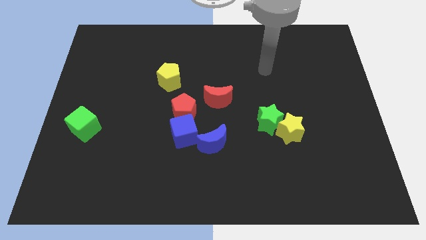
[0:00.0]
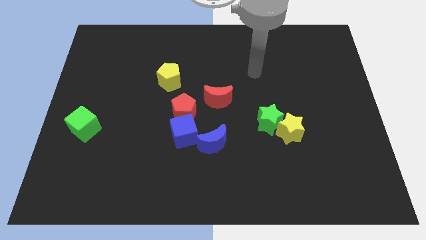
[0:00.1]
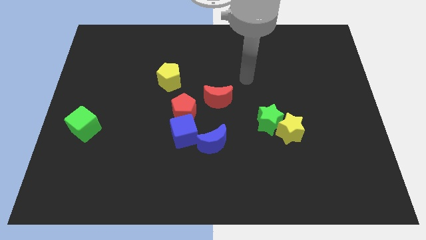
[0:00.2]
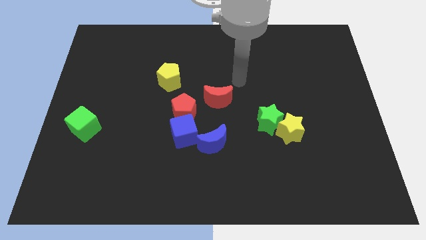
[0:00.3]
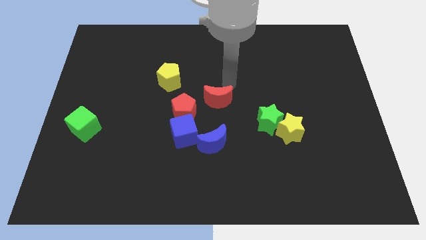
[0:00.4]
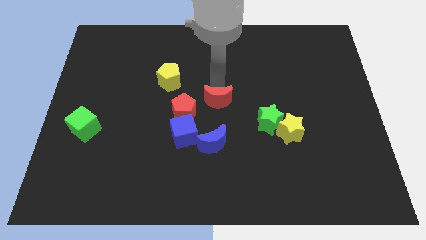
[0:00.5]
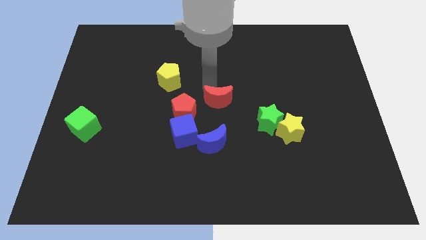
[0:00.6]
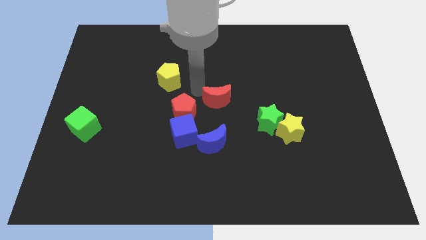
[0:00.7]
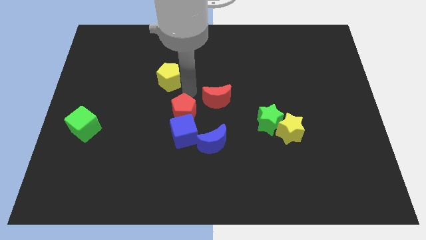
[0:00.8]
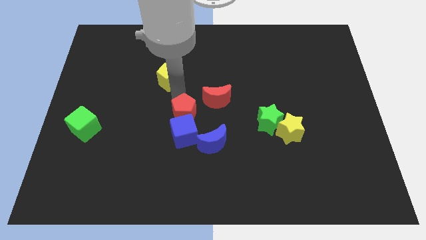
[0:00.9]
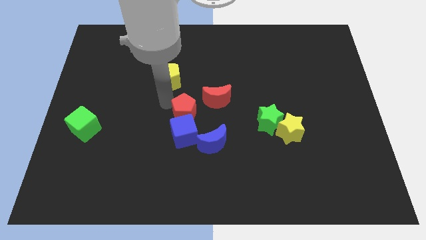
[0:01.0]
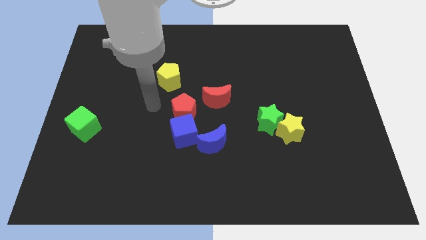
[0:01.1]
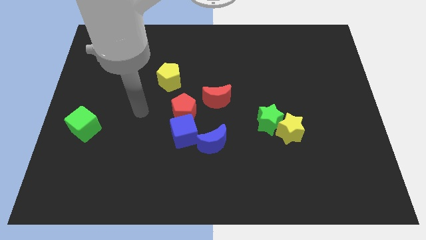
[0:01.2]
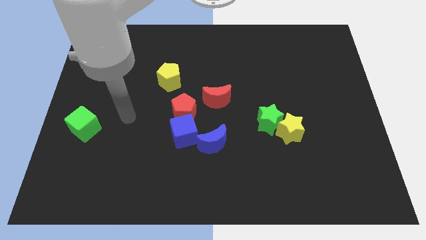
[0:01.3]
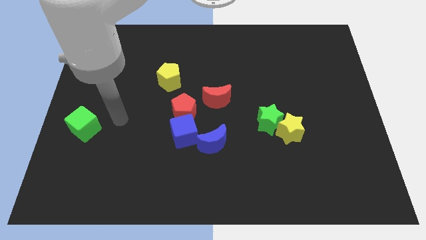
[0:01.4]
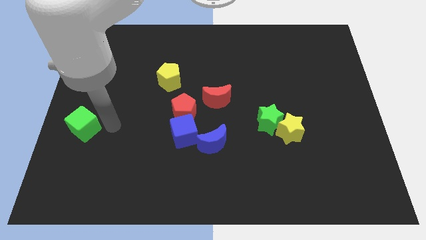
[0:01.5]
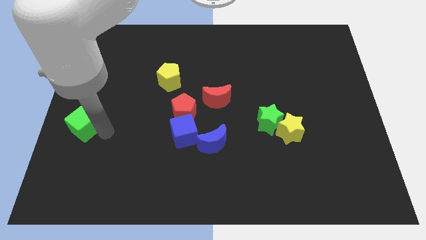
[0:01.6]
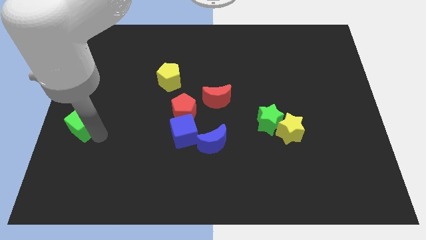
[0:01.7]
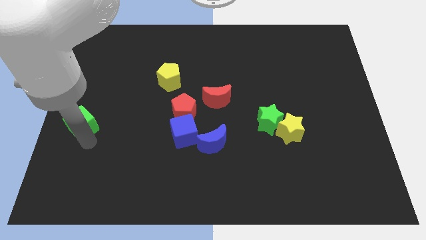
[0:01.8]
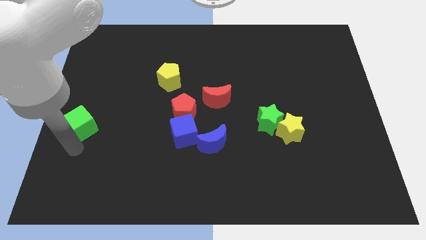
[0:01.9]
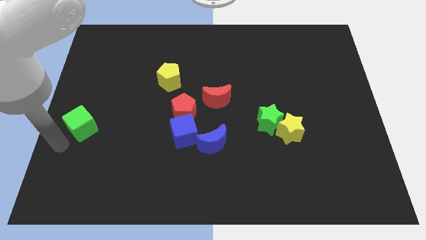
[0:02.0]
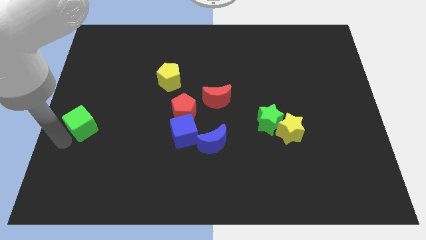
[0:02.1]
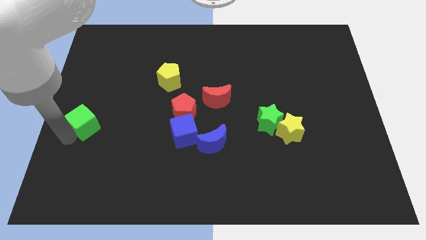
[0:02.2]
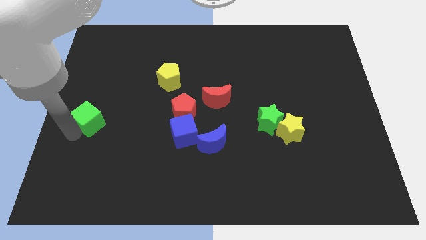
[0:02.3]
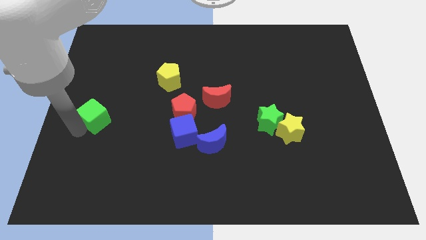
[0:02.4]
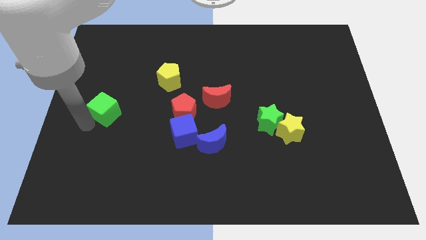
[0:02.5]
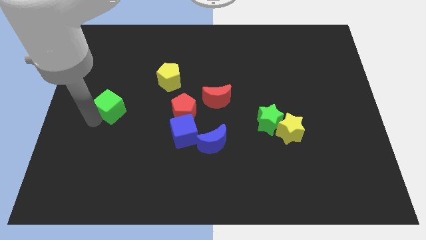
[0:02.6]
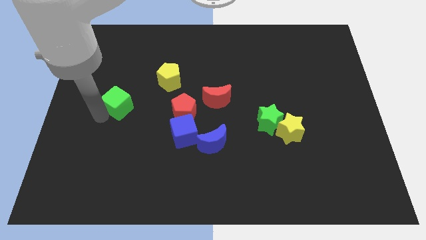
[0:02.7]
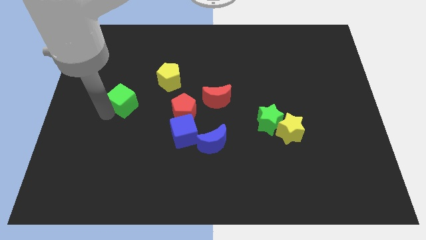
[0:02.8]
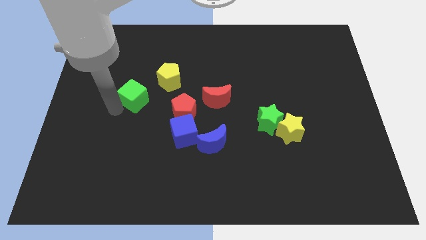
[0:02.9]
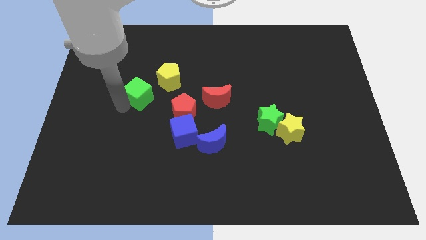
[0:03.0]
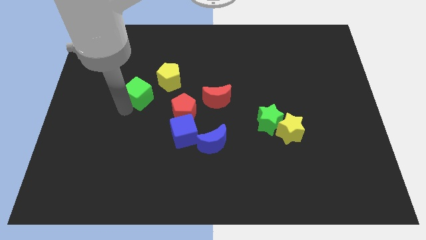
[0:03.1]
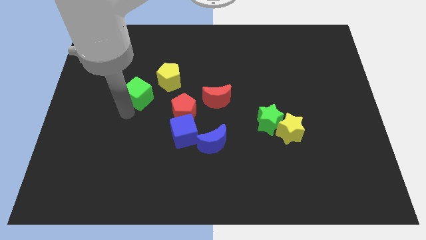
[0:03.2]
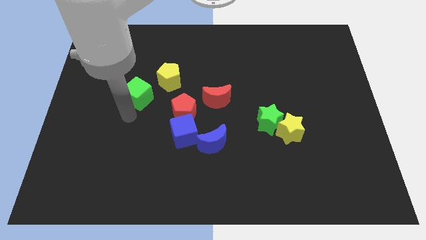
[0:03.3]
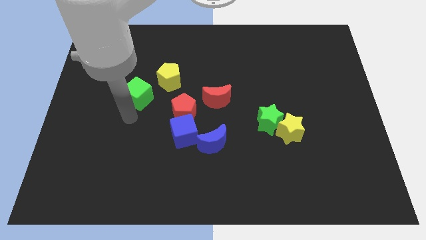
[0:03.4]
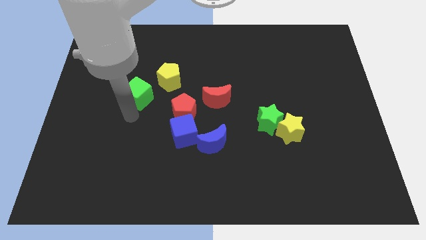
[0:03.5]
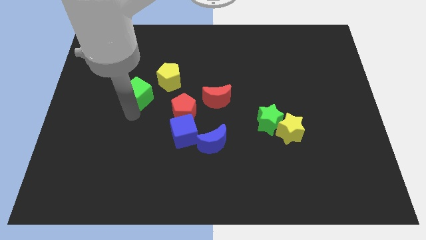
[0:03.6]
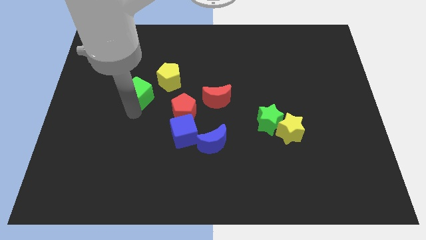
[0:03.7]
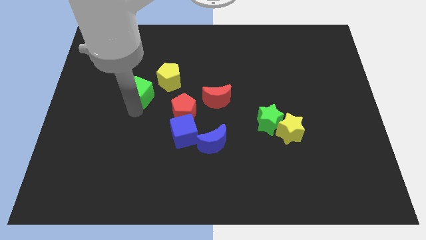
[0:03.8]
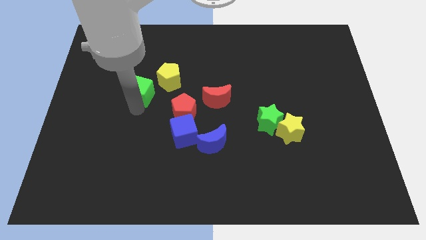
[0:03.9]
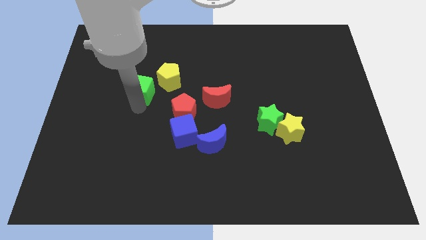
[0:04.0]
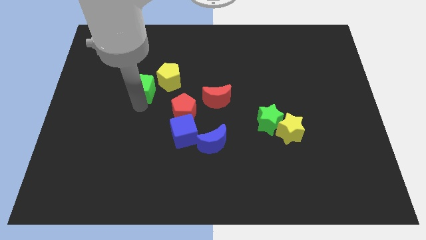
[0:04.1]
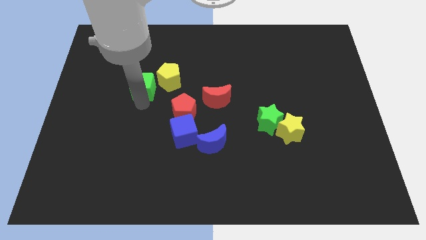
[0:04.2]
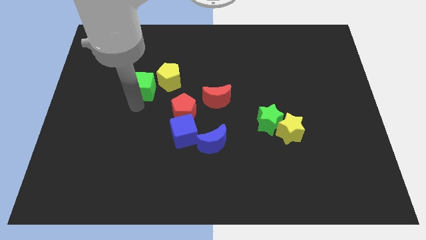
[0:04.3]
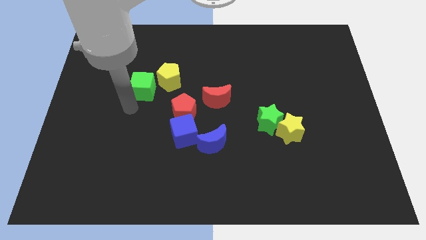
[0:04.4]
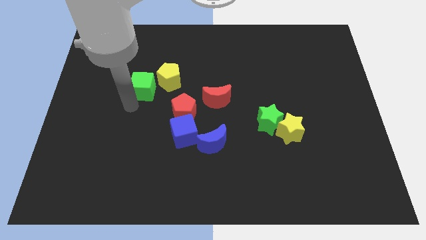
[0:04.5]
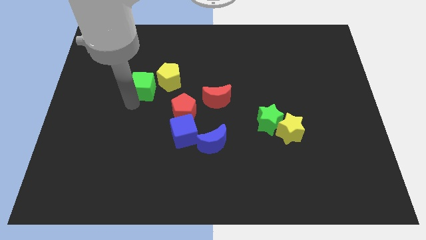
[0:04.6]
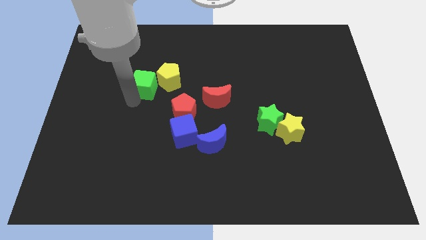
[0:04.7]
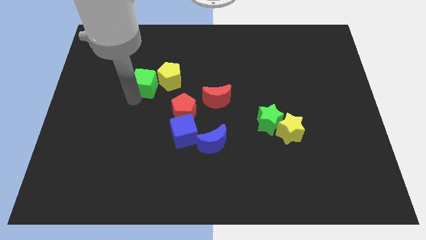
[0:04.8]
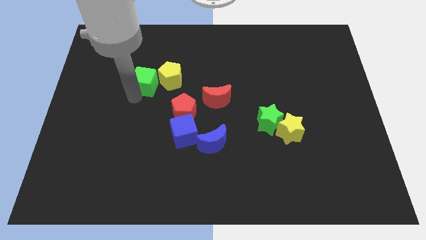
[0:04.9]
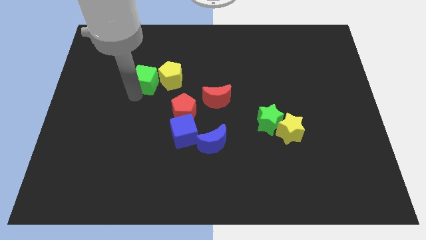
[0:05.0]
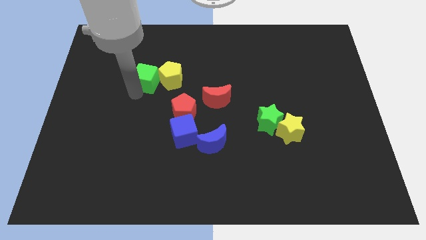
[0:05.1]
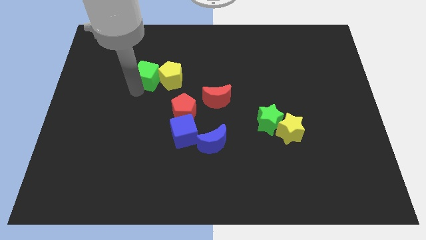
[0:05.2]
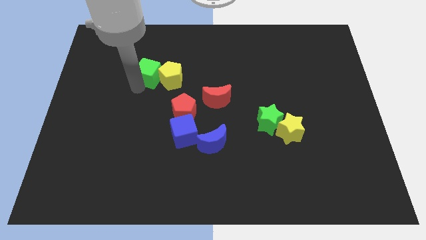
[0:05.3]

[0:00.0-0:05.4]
push the green cube up and to the right

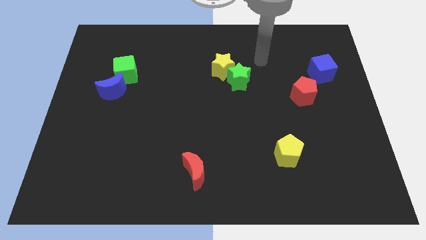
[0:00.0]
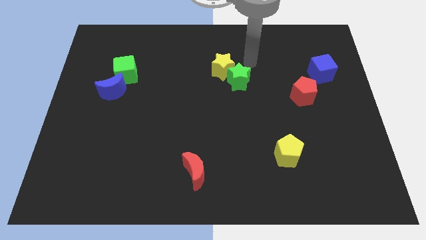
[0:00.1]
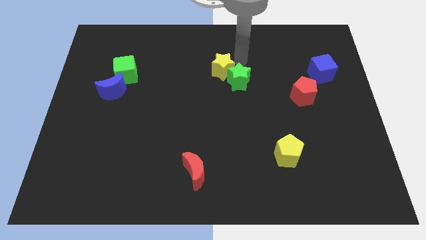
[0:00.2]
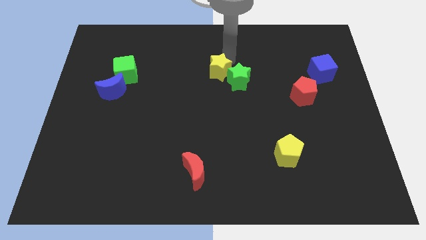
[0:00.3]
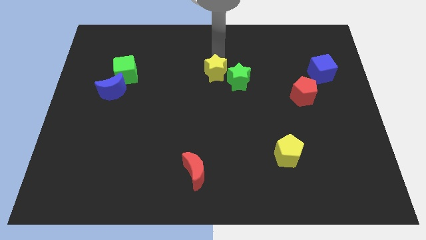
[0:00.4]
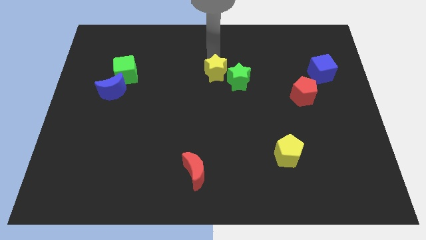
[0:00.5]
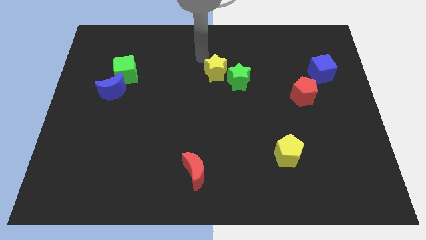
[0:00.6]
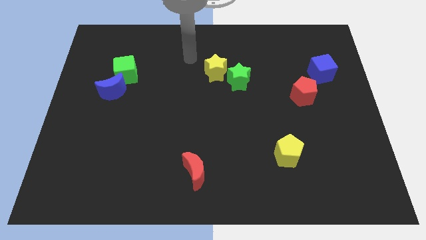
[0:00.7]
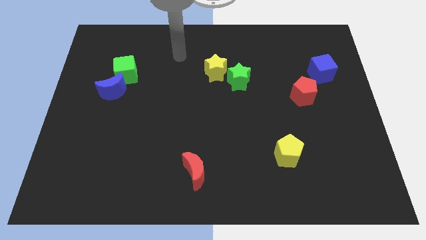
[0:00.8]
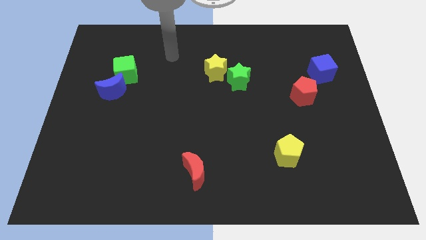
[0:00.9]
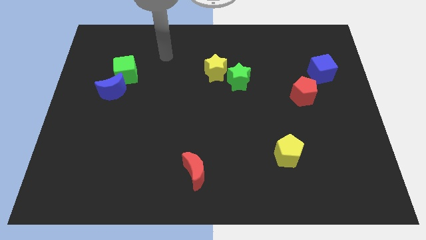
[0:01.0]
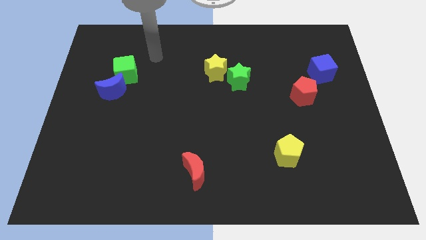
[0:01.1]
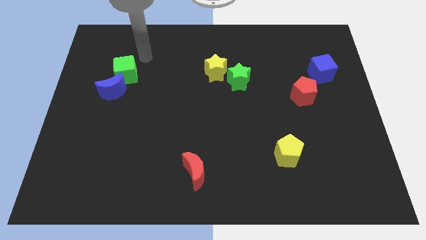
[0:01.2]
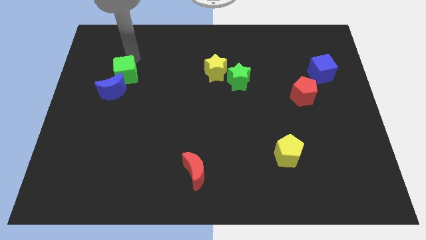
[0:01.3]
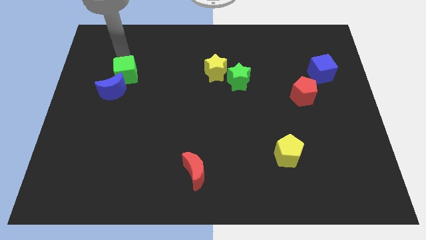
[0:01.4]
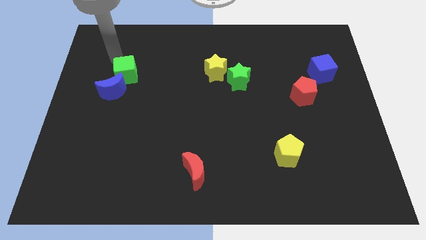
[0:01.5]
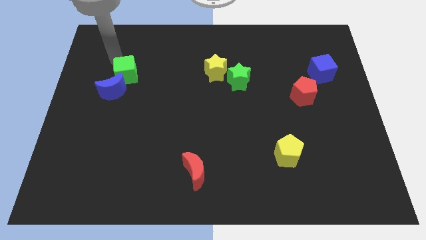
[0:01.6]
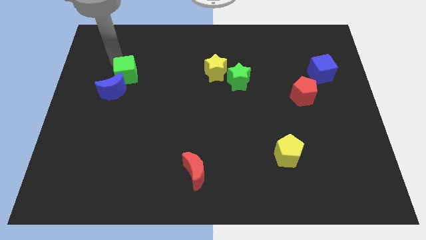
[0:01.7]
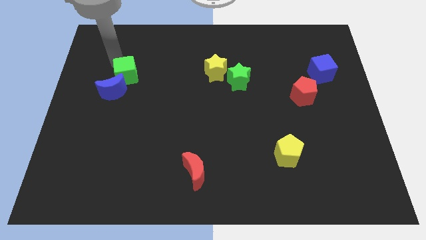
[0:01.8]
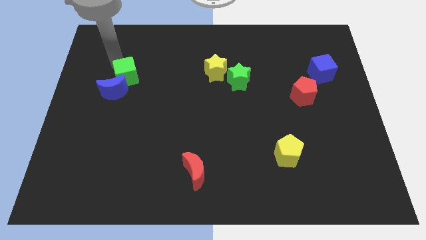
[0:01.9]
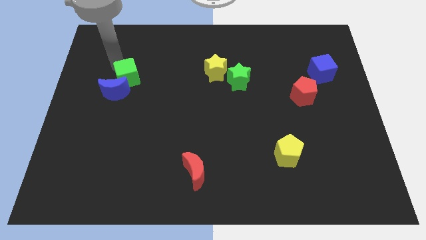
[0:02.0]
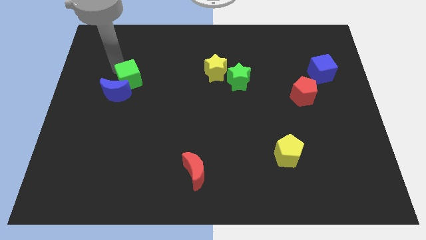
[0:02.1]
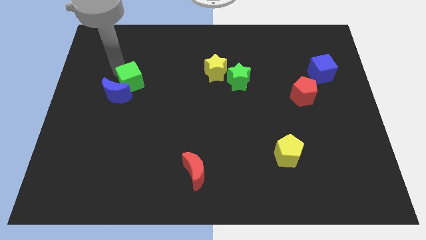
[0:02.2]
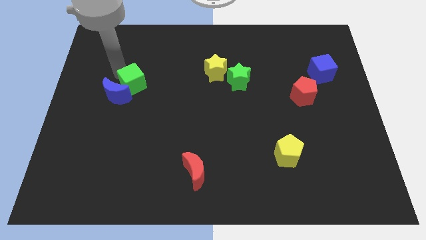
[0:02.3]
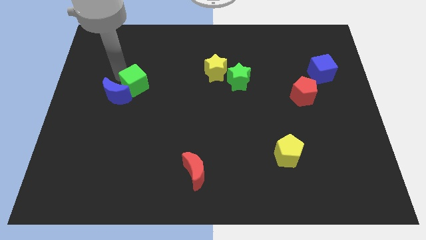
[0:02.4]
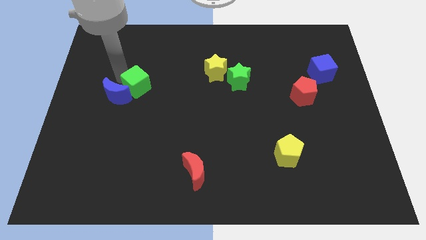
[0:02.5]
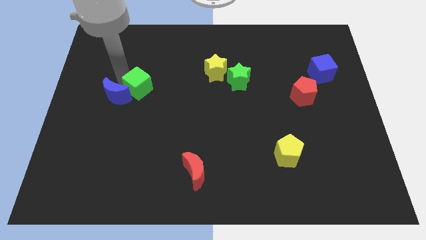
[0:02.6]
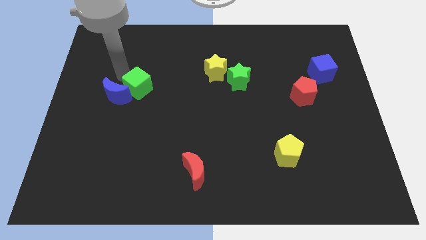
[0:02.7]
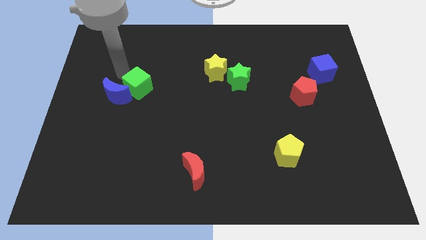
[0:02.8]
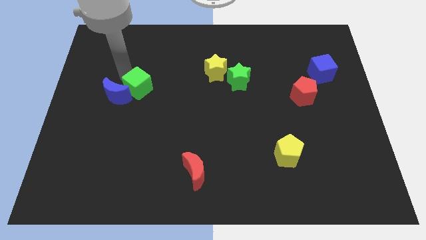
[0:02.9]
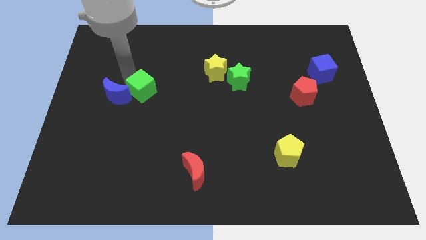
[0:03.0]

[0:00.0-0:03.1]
slightly slide the green cube down and then right
